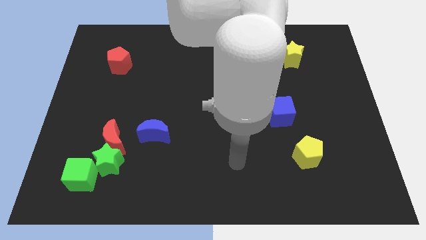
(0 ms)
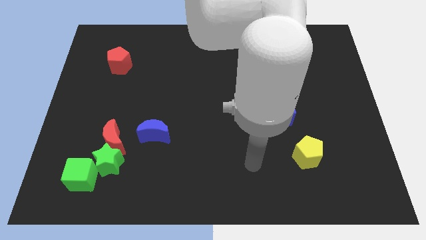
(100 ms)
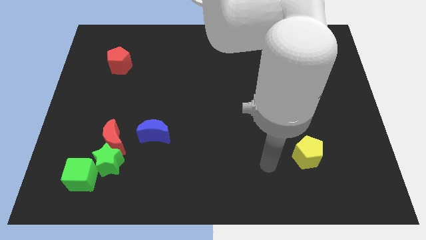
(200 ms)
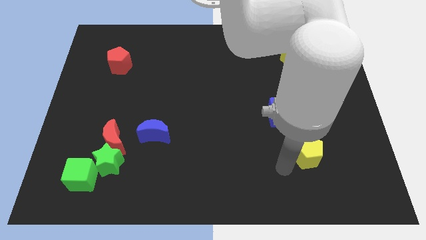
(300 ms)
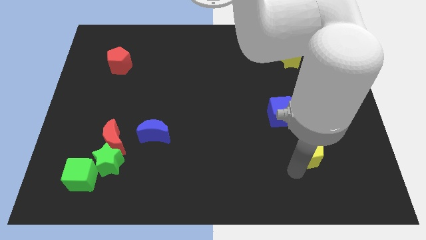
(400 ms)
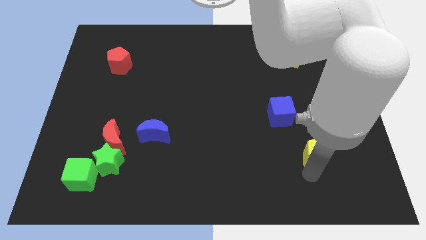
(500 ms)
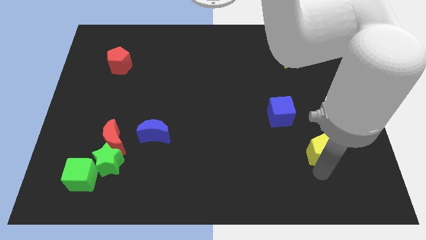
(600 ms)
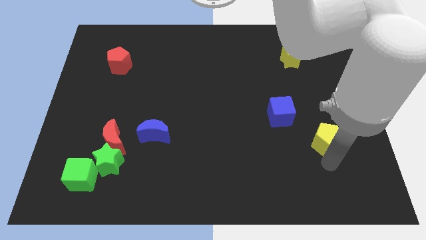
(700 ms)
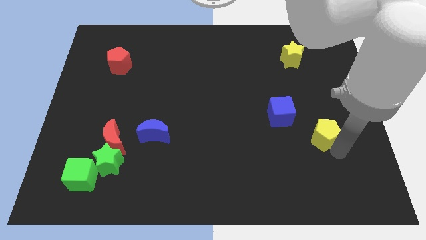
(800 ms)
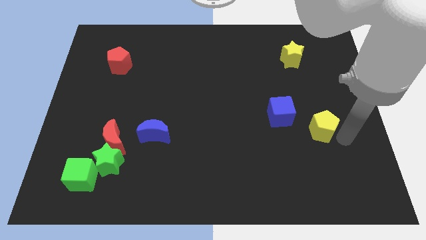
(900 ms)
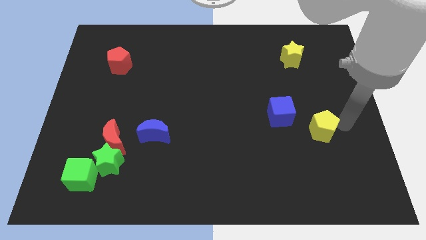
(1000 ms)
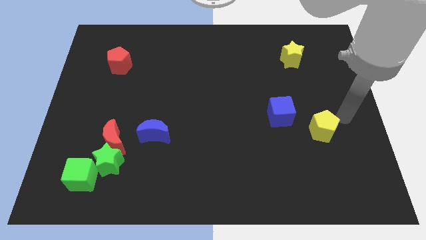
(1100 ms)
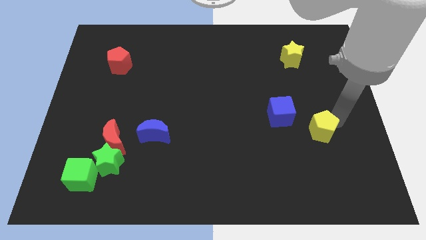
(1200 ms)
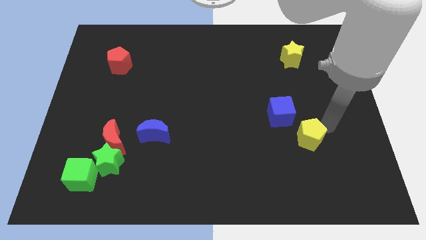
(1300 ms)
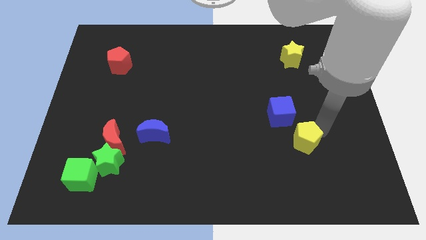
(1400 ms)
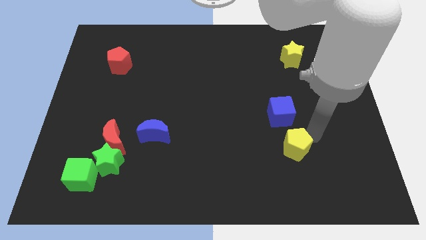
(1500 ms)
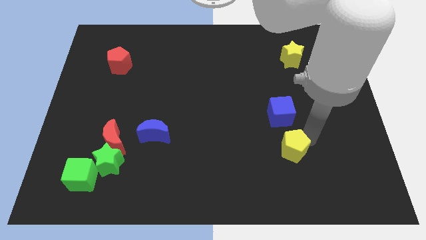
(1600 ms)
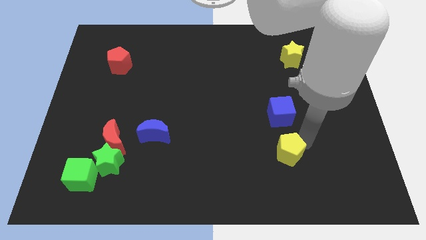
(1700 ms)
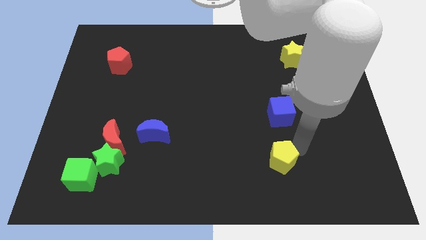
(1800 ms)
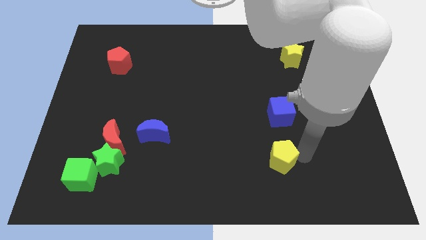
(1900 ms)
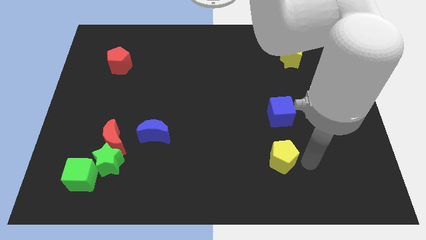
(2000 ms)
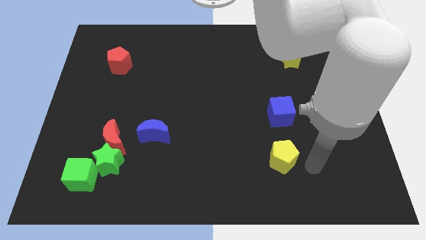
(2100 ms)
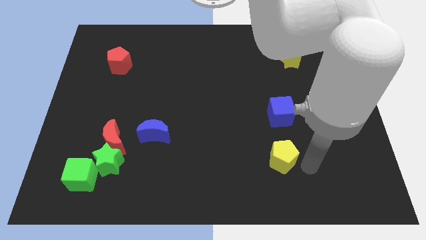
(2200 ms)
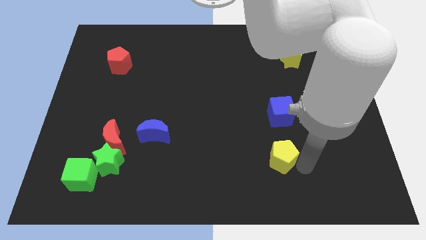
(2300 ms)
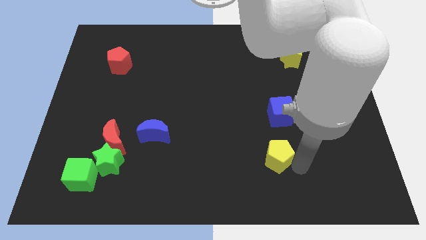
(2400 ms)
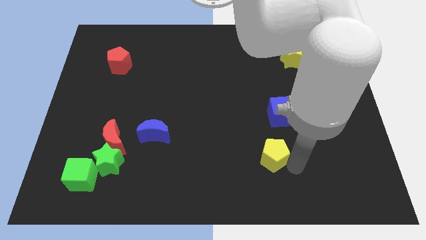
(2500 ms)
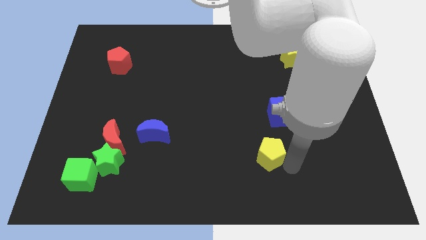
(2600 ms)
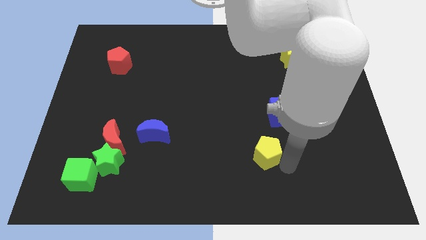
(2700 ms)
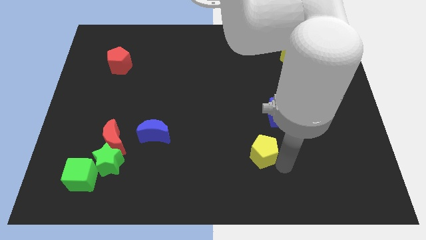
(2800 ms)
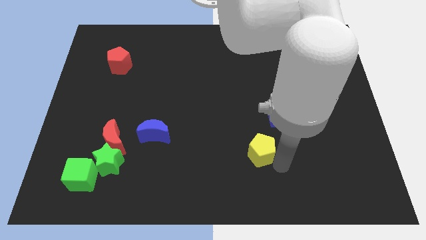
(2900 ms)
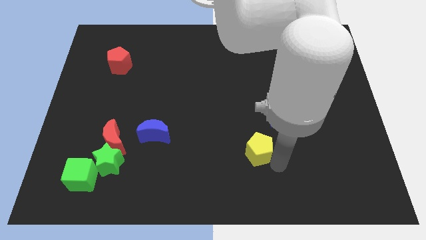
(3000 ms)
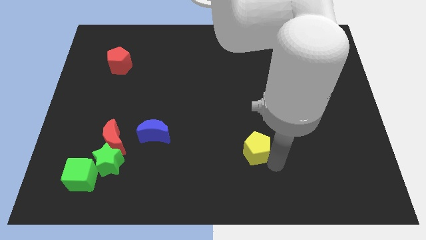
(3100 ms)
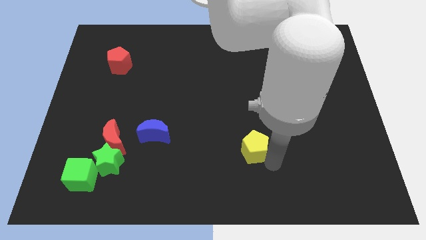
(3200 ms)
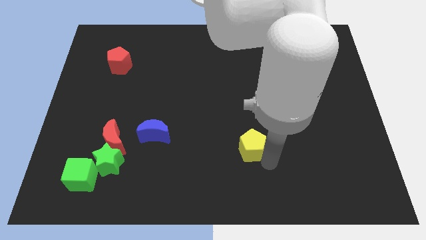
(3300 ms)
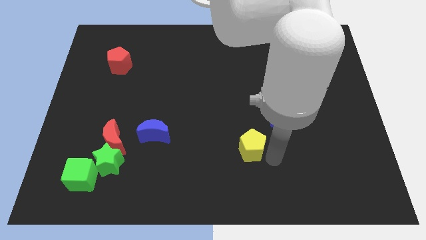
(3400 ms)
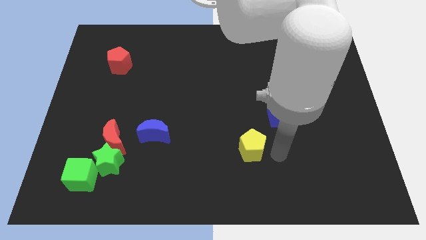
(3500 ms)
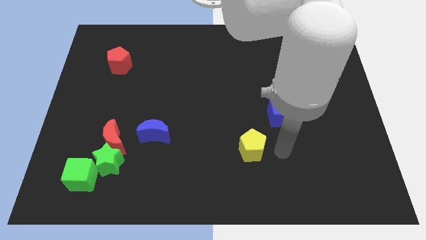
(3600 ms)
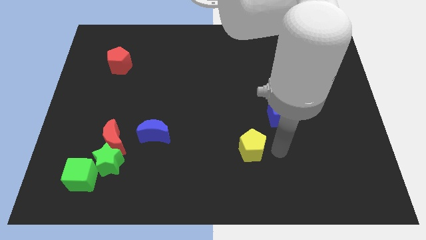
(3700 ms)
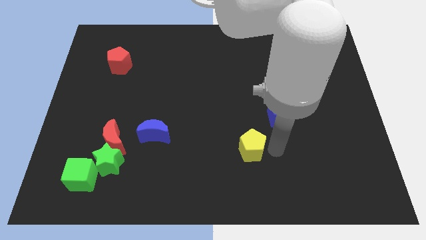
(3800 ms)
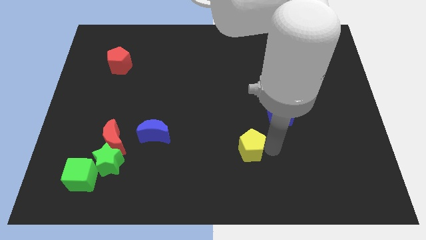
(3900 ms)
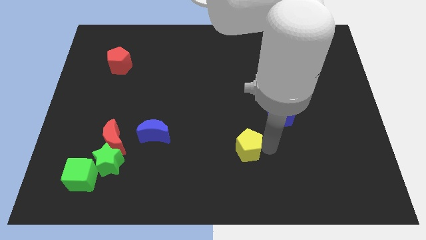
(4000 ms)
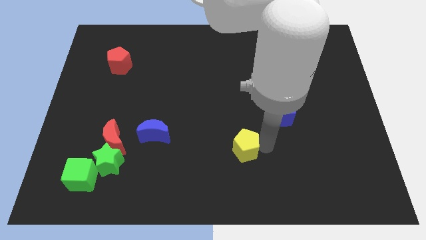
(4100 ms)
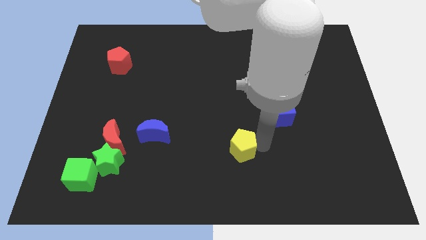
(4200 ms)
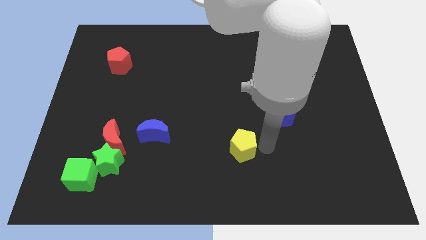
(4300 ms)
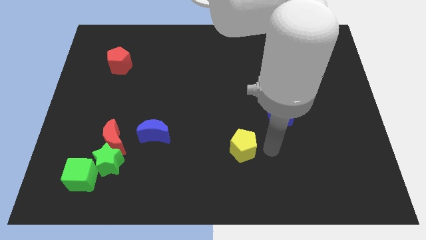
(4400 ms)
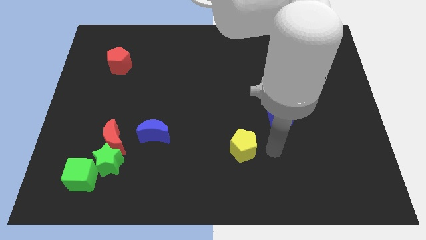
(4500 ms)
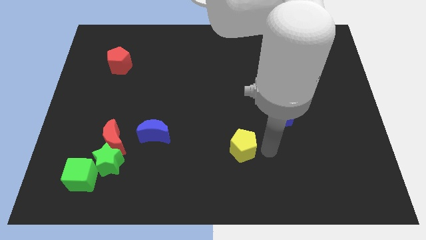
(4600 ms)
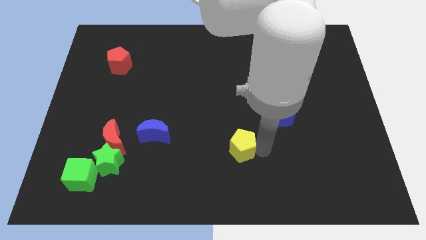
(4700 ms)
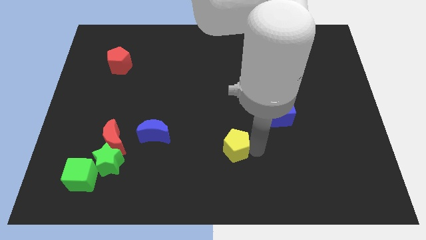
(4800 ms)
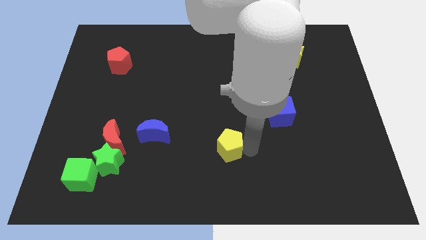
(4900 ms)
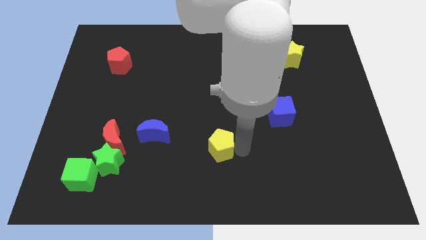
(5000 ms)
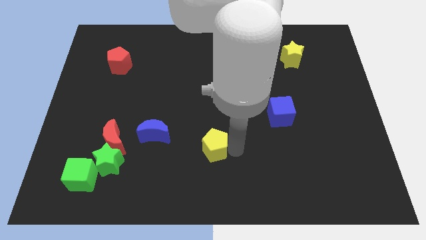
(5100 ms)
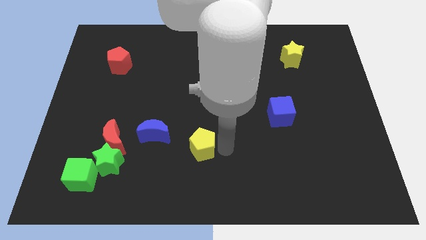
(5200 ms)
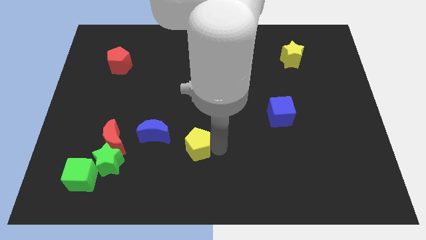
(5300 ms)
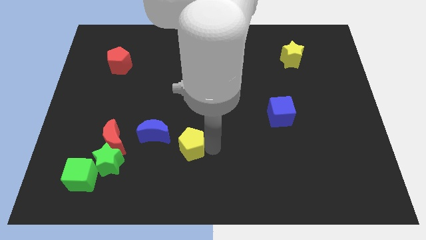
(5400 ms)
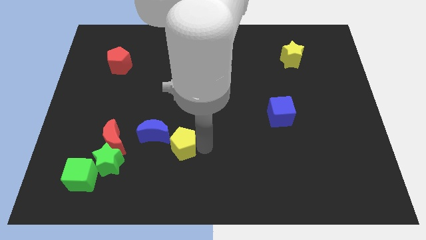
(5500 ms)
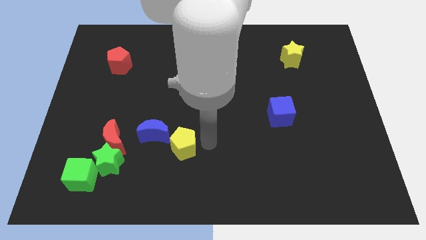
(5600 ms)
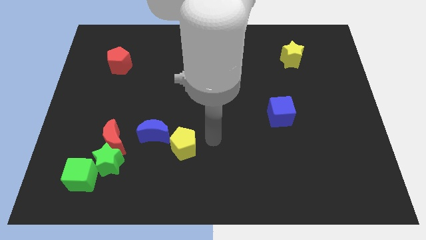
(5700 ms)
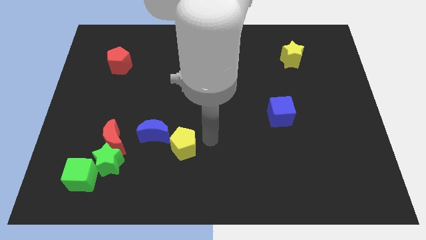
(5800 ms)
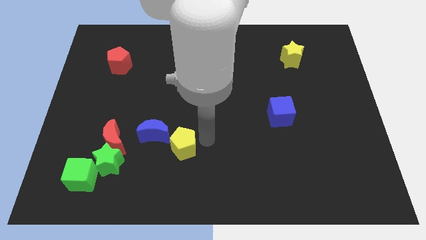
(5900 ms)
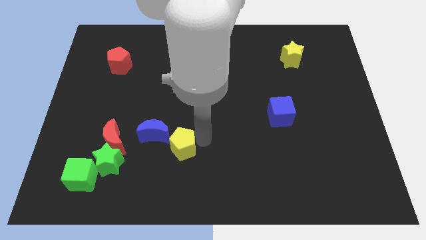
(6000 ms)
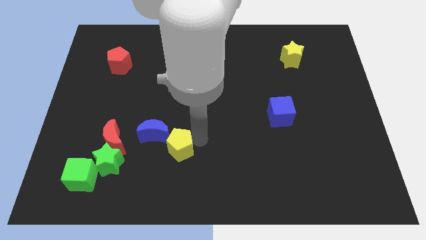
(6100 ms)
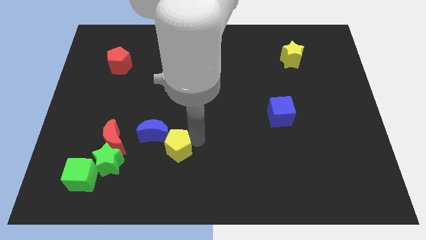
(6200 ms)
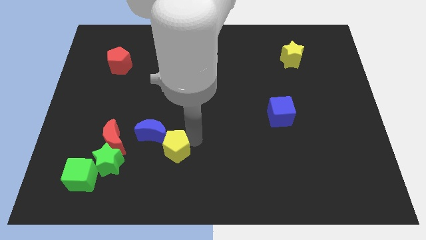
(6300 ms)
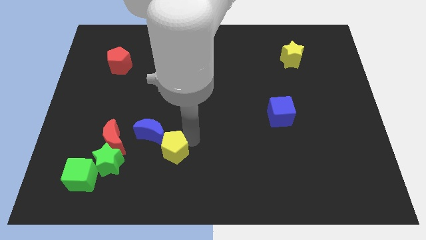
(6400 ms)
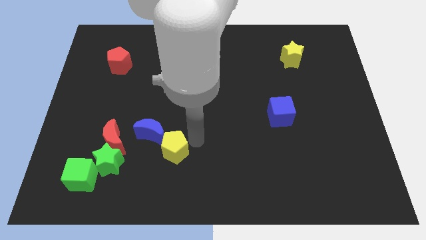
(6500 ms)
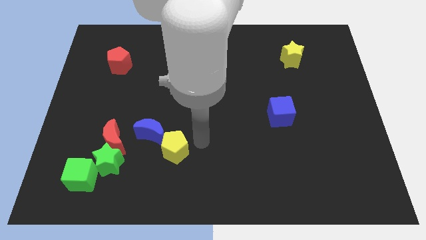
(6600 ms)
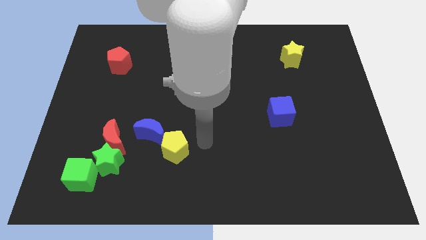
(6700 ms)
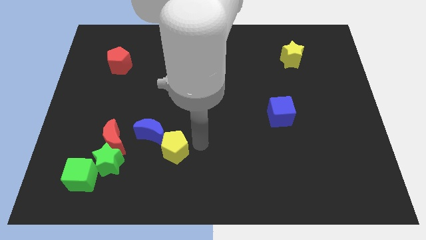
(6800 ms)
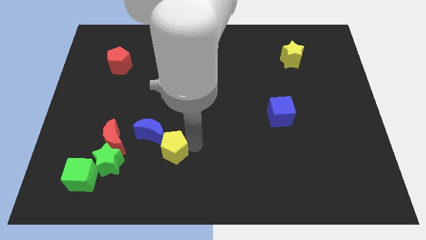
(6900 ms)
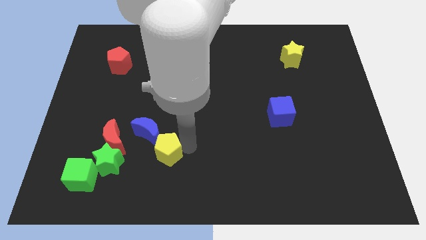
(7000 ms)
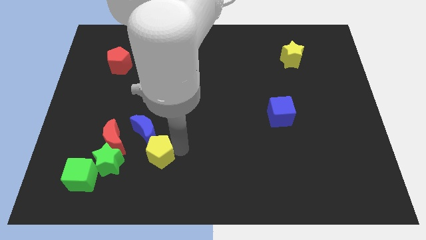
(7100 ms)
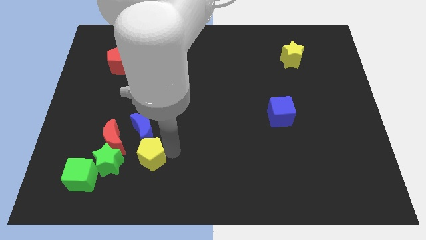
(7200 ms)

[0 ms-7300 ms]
move the yellow pentagon to the bottom right of the red moon
